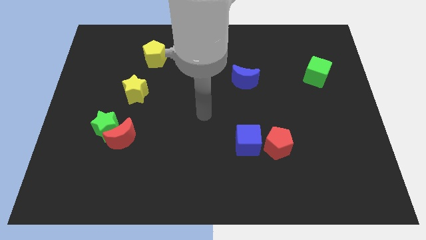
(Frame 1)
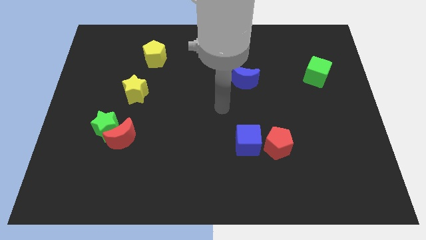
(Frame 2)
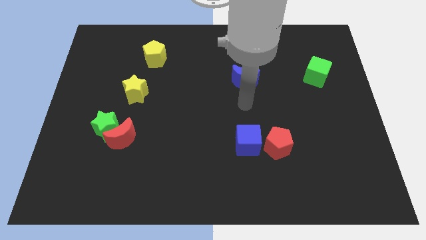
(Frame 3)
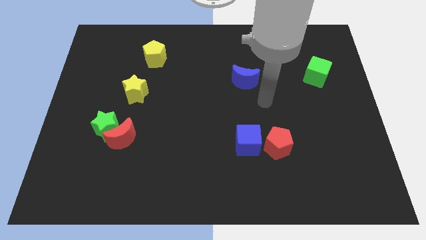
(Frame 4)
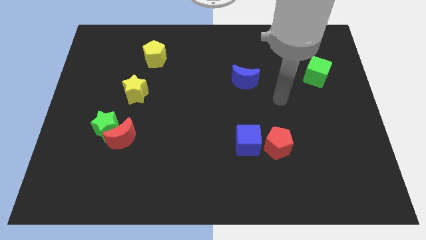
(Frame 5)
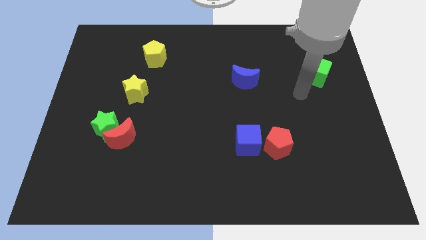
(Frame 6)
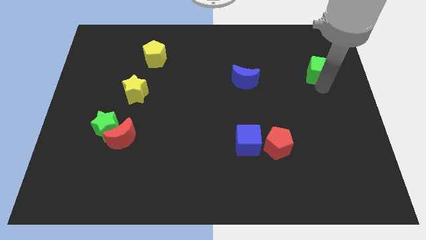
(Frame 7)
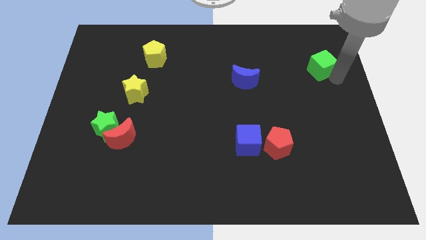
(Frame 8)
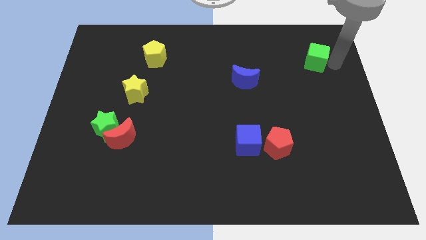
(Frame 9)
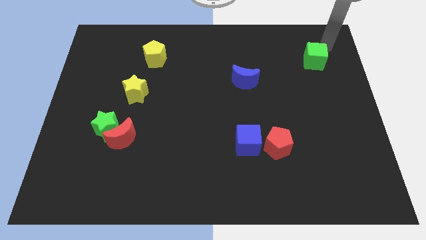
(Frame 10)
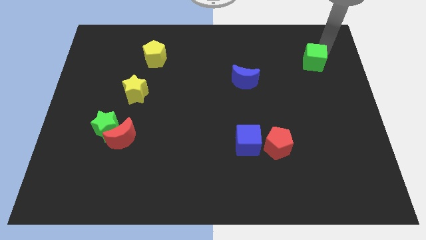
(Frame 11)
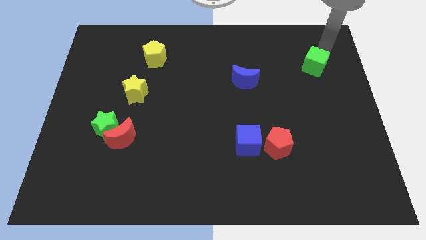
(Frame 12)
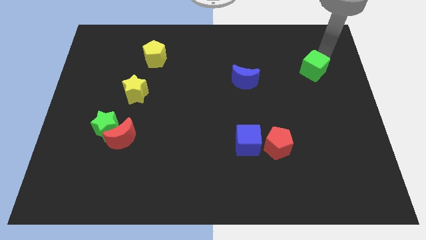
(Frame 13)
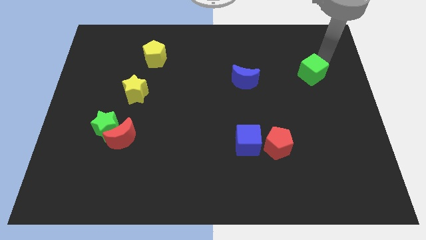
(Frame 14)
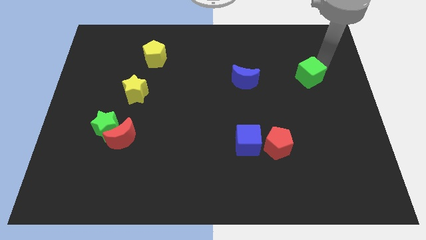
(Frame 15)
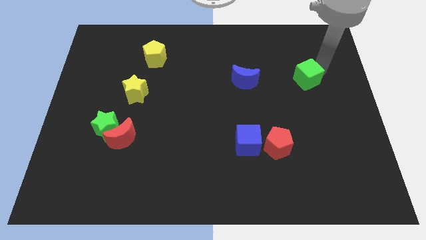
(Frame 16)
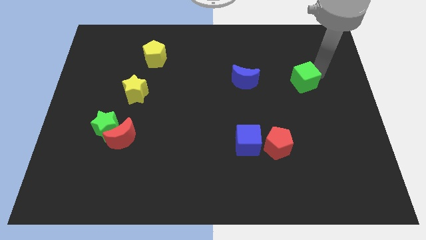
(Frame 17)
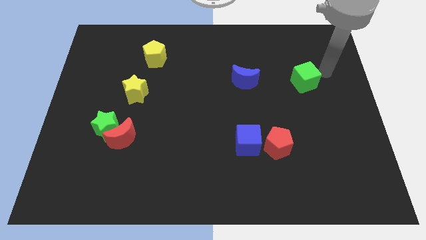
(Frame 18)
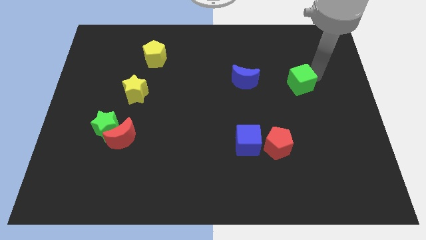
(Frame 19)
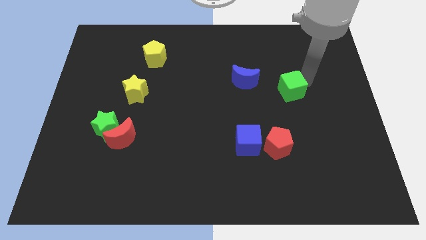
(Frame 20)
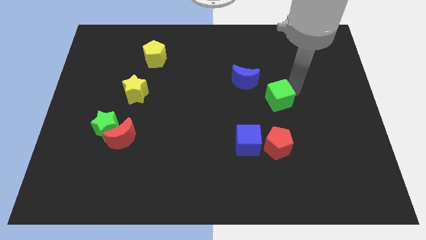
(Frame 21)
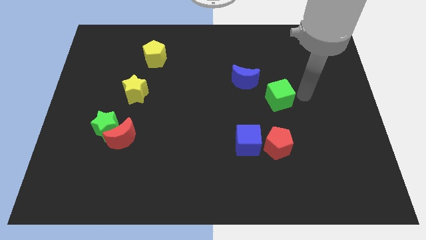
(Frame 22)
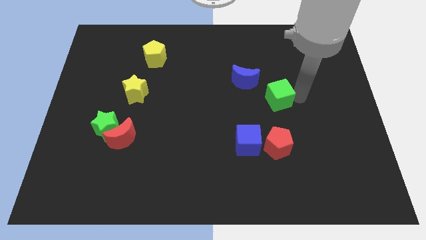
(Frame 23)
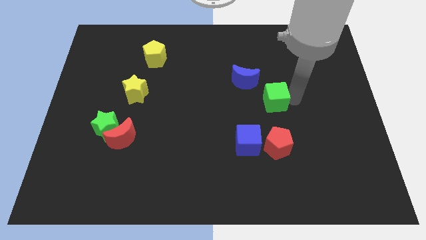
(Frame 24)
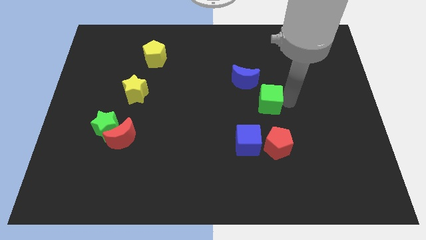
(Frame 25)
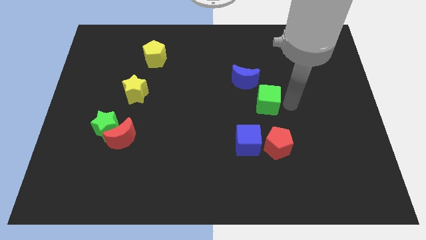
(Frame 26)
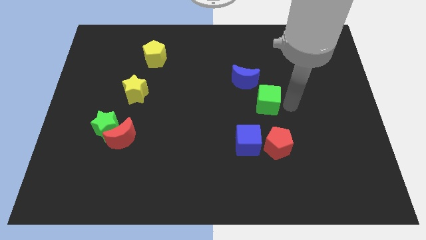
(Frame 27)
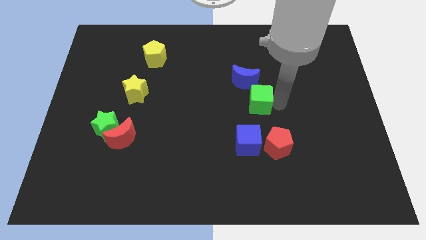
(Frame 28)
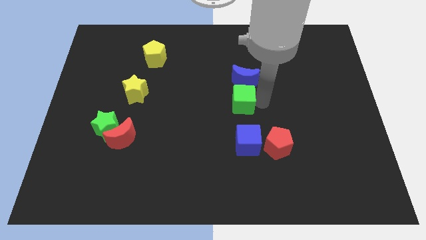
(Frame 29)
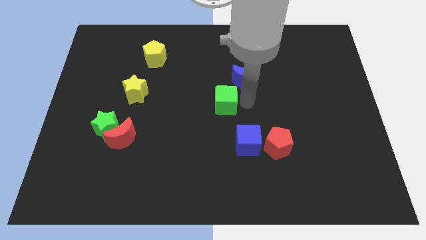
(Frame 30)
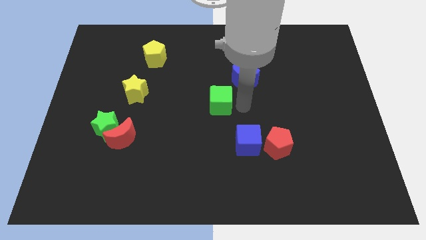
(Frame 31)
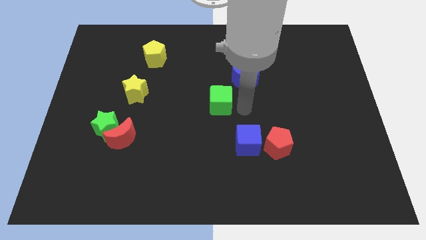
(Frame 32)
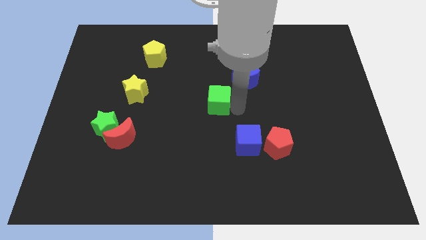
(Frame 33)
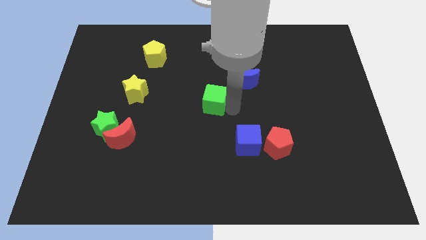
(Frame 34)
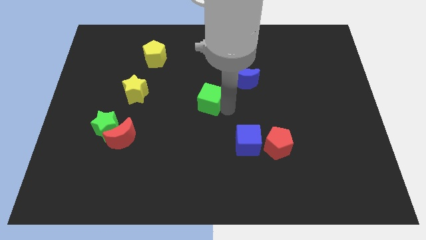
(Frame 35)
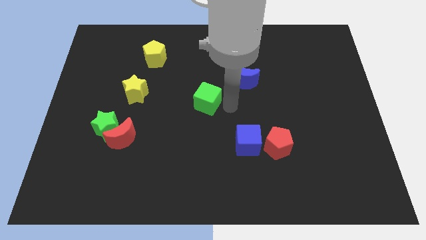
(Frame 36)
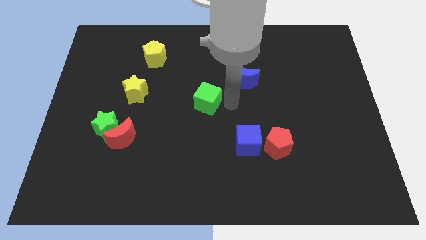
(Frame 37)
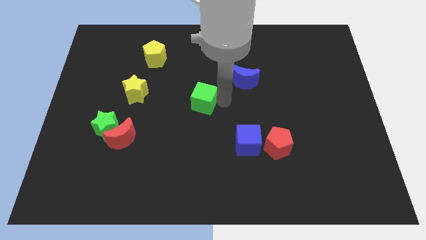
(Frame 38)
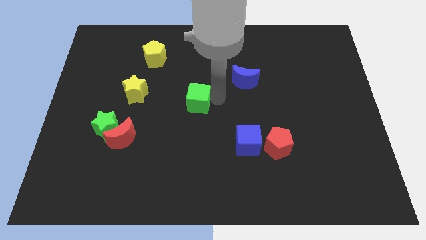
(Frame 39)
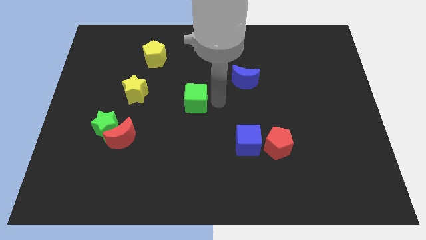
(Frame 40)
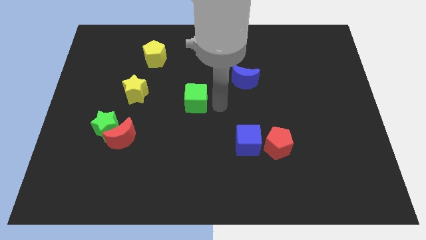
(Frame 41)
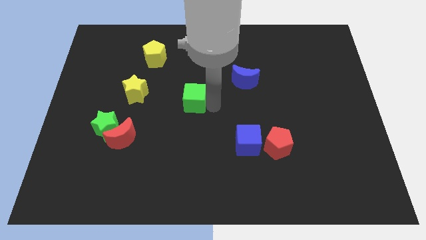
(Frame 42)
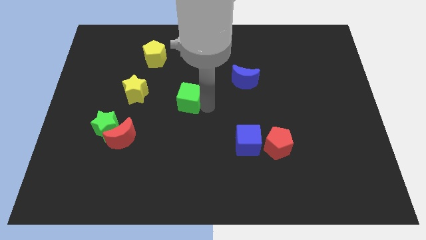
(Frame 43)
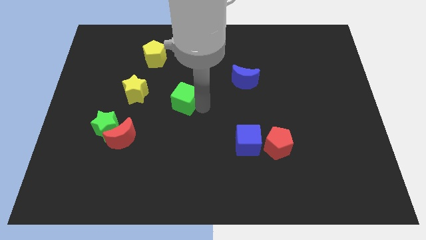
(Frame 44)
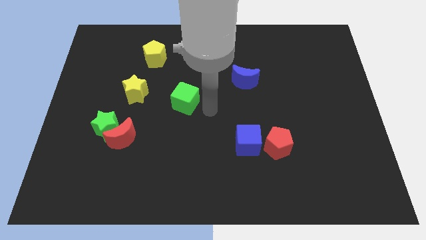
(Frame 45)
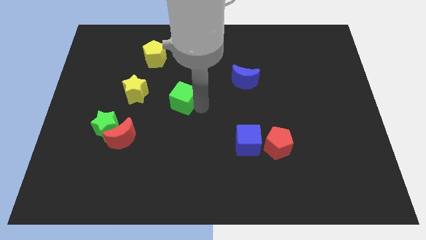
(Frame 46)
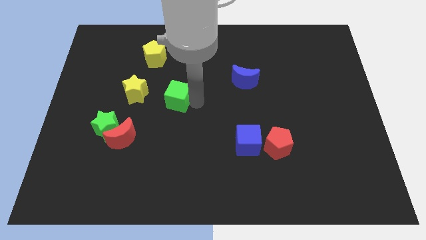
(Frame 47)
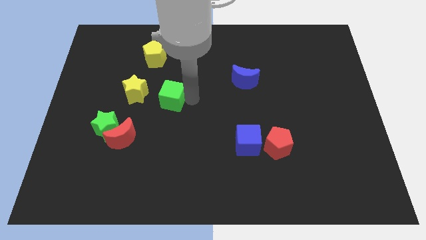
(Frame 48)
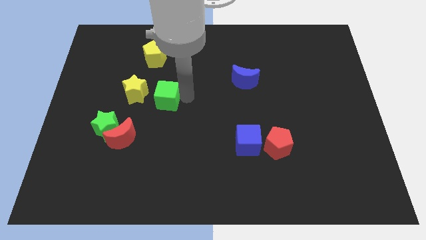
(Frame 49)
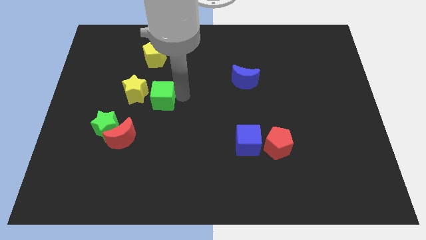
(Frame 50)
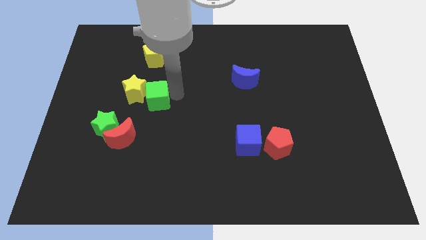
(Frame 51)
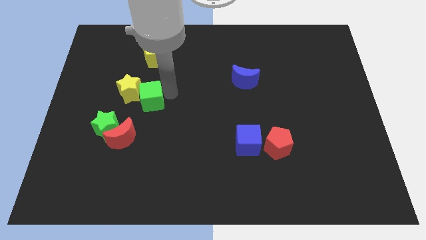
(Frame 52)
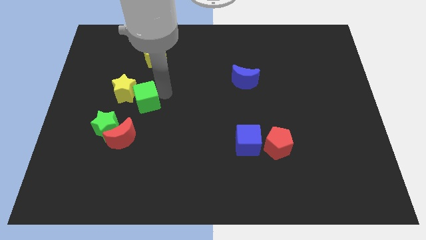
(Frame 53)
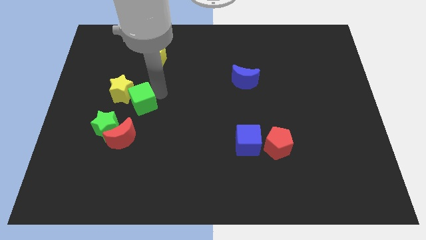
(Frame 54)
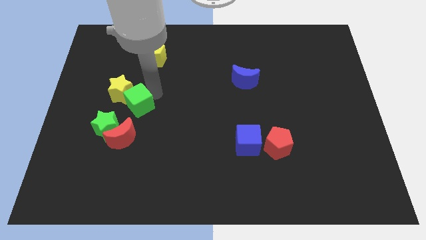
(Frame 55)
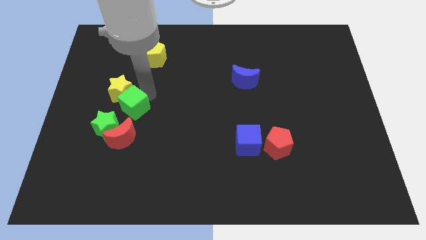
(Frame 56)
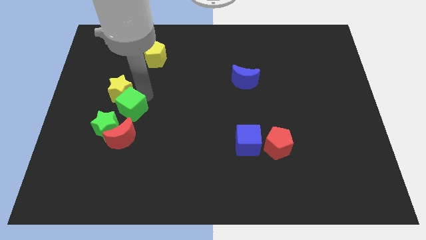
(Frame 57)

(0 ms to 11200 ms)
put the green cube to the top of the green star

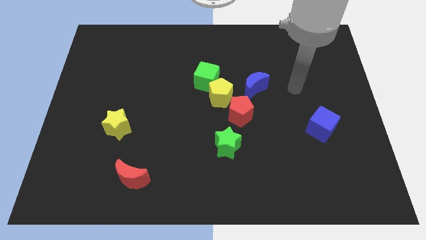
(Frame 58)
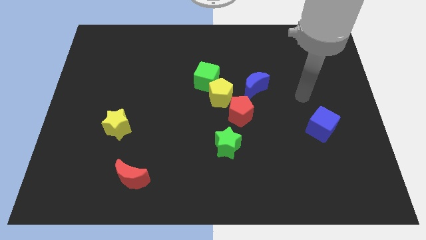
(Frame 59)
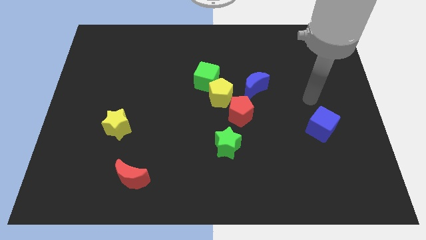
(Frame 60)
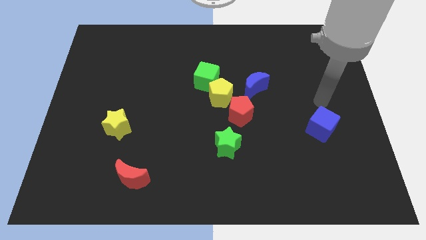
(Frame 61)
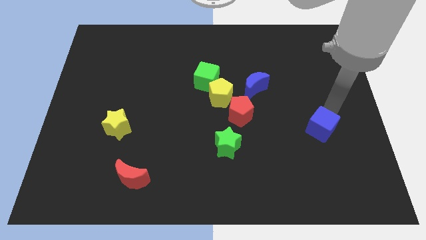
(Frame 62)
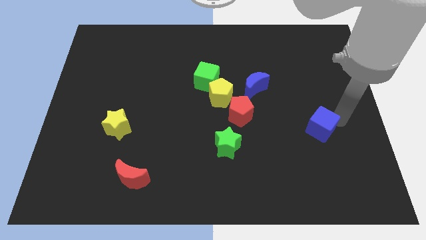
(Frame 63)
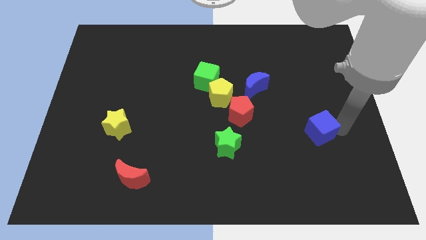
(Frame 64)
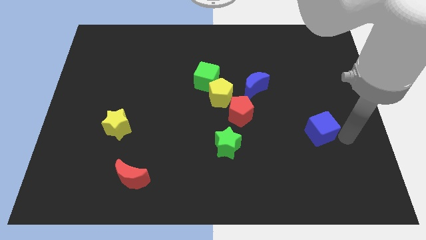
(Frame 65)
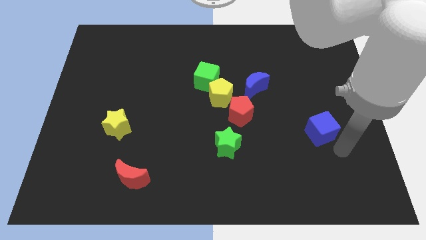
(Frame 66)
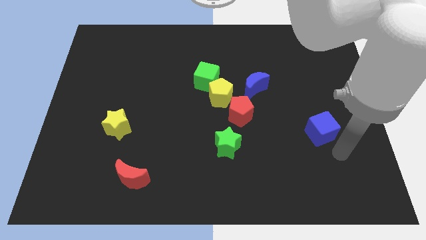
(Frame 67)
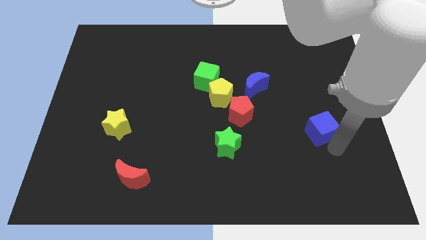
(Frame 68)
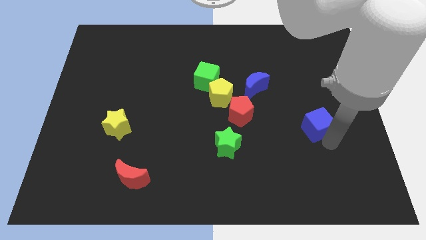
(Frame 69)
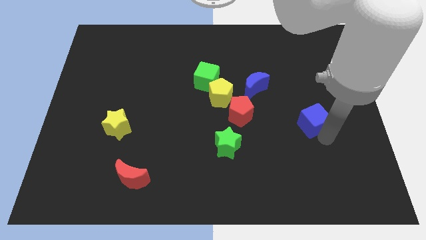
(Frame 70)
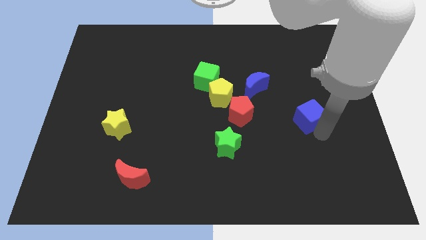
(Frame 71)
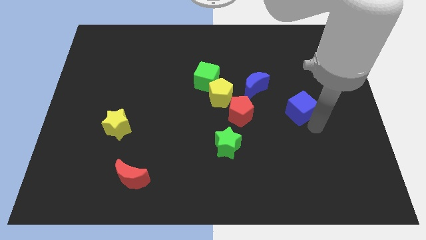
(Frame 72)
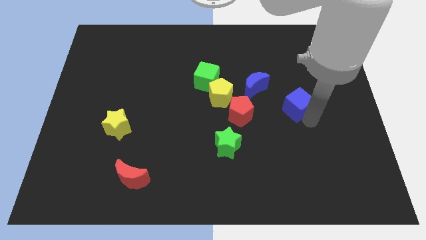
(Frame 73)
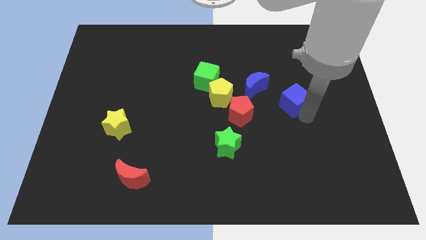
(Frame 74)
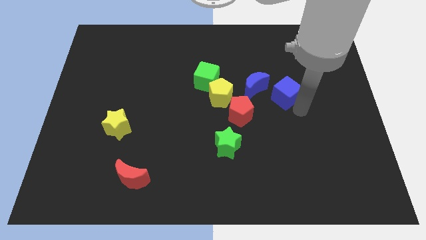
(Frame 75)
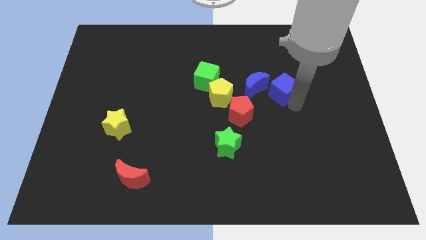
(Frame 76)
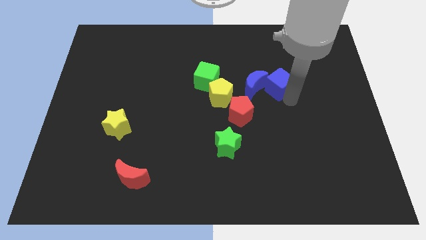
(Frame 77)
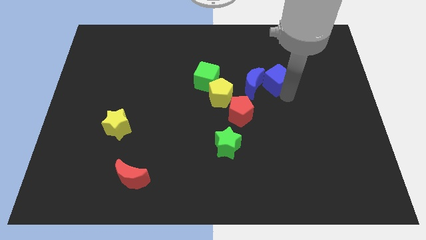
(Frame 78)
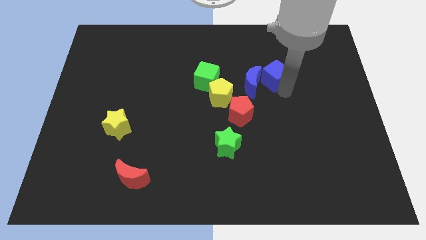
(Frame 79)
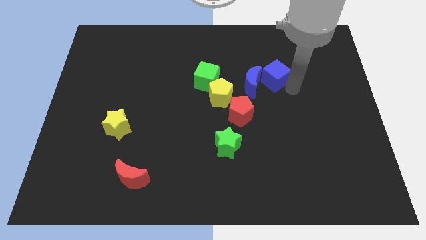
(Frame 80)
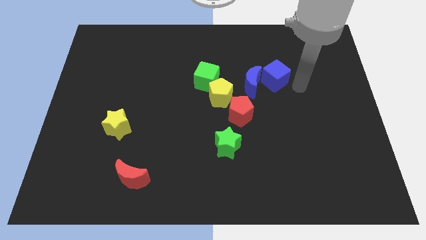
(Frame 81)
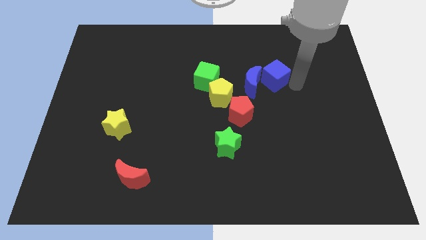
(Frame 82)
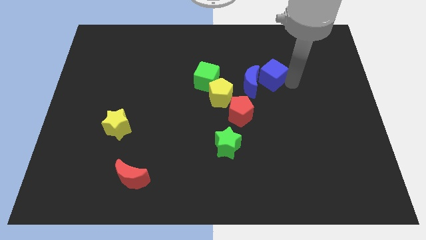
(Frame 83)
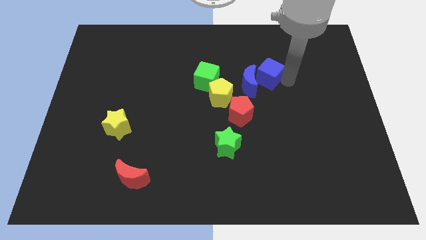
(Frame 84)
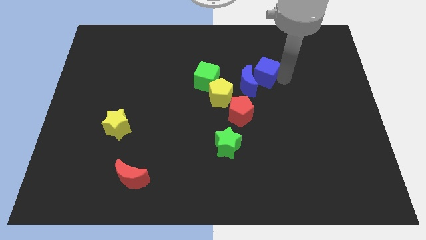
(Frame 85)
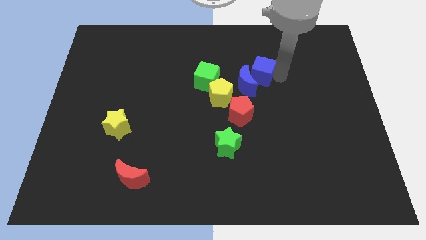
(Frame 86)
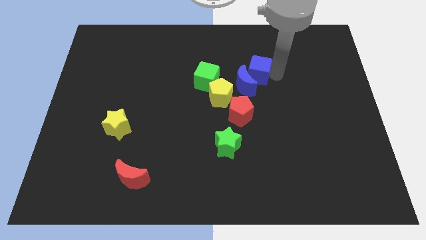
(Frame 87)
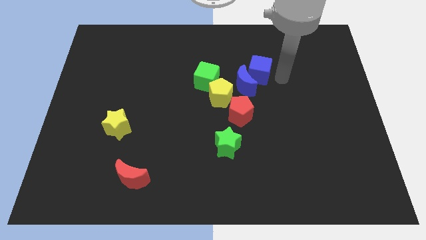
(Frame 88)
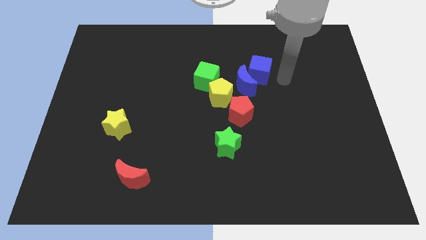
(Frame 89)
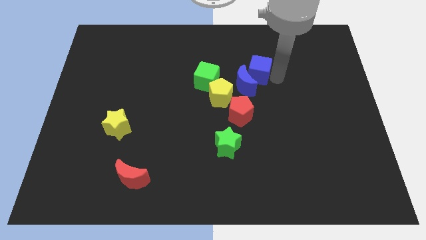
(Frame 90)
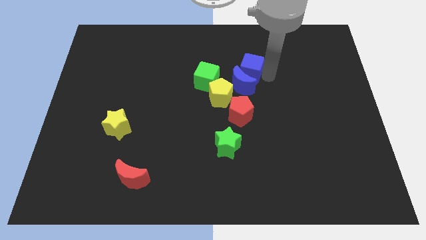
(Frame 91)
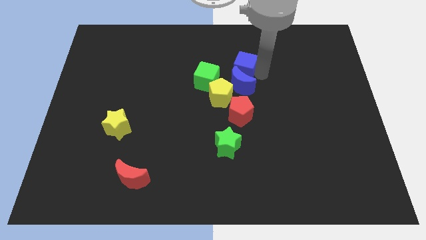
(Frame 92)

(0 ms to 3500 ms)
put the blue cube diagonally up and to the right of the green cube
